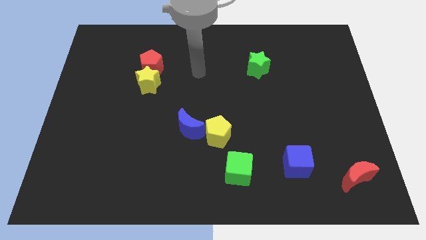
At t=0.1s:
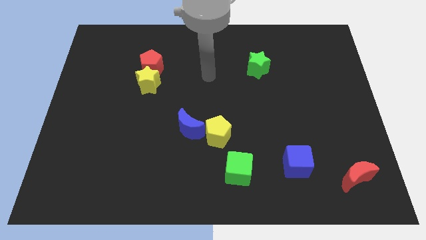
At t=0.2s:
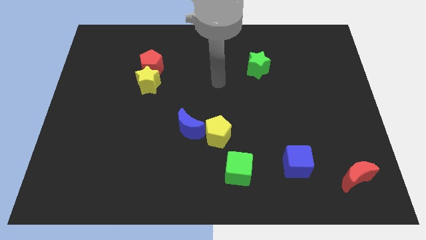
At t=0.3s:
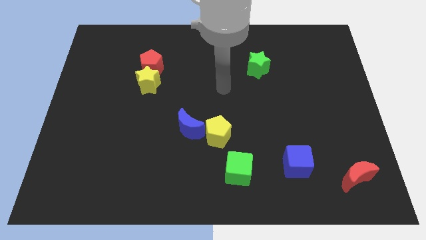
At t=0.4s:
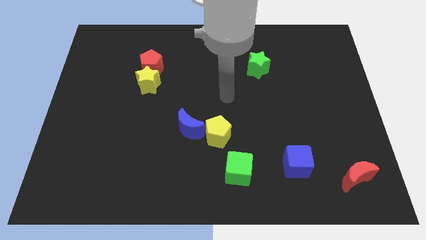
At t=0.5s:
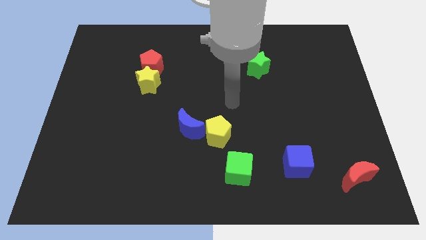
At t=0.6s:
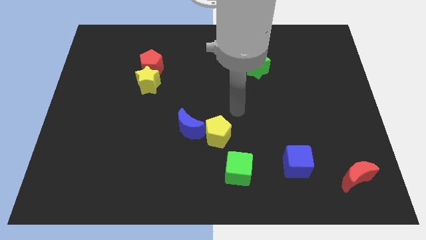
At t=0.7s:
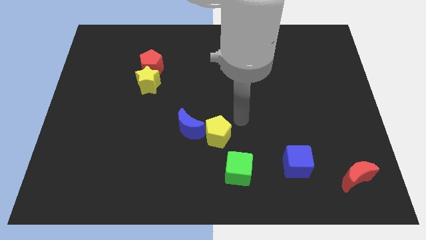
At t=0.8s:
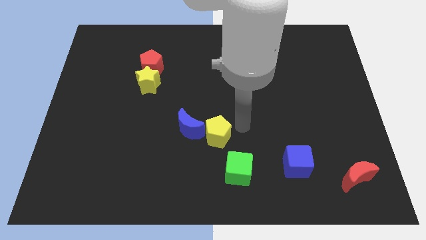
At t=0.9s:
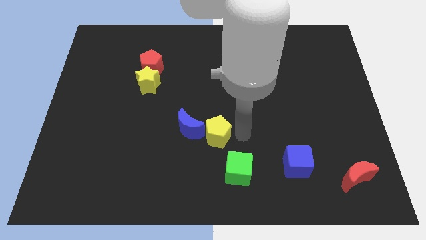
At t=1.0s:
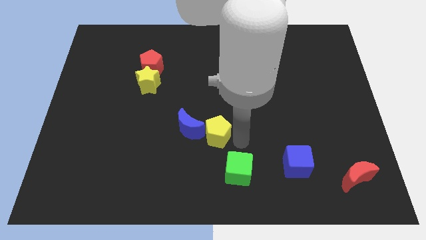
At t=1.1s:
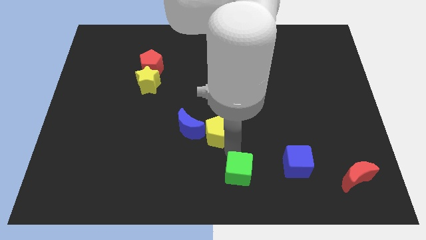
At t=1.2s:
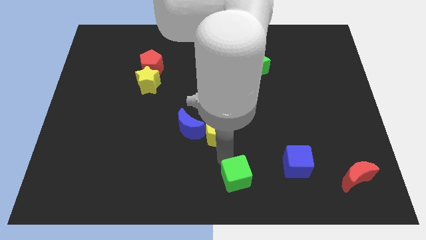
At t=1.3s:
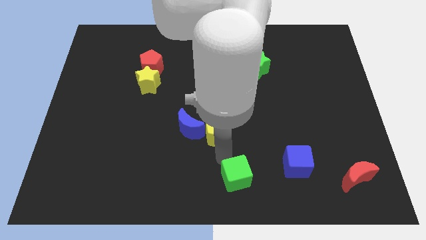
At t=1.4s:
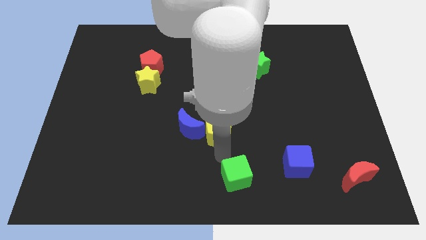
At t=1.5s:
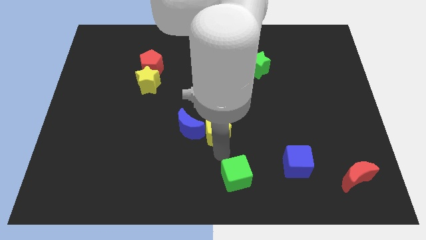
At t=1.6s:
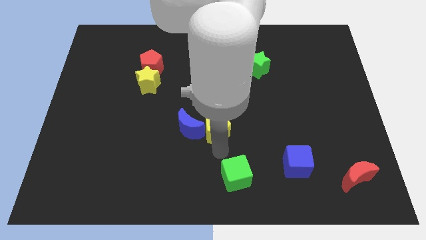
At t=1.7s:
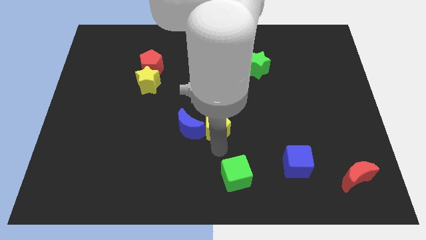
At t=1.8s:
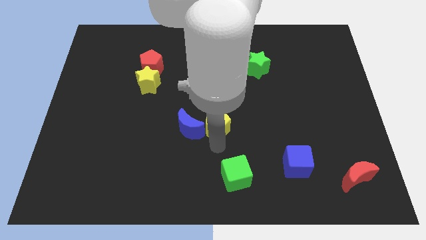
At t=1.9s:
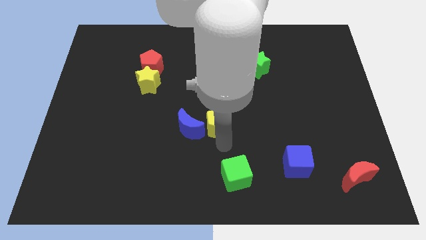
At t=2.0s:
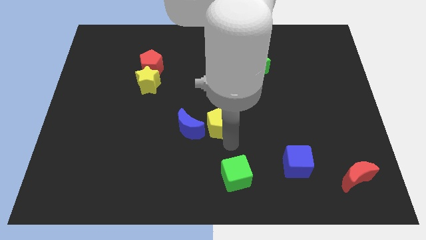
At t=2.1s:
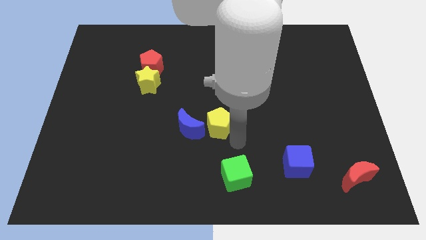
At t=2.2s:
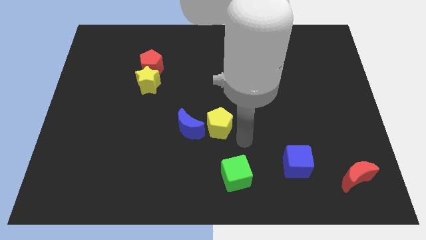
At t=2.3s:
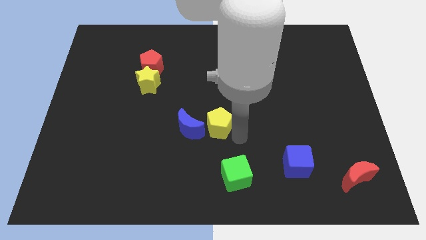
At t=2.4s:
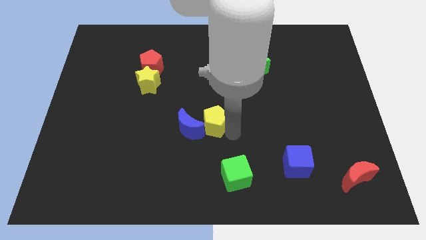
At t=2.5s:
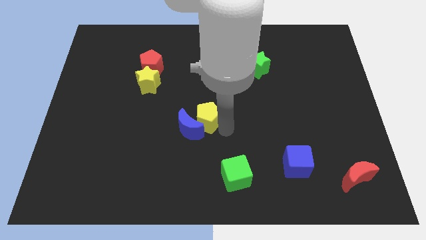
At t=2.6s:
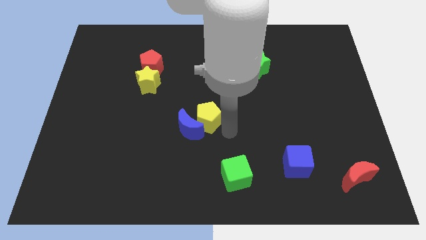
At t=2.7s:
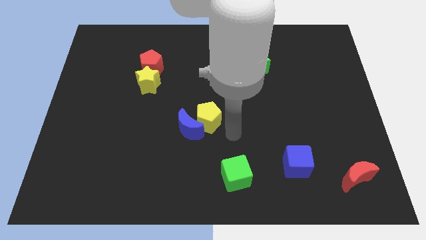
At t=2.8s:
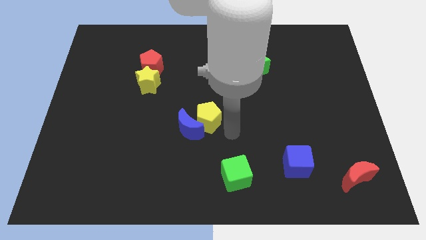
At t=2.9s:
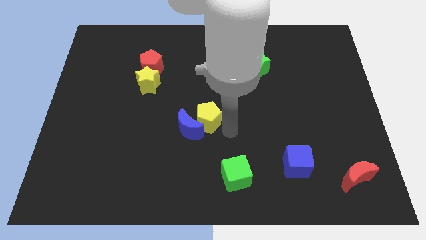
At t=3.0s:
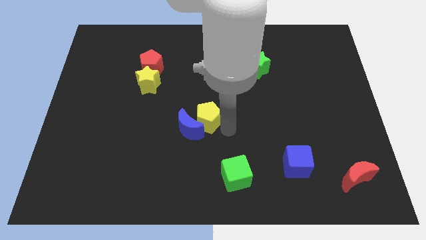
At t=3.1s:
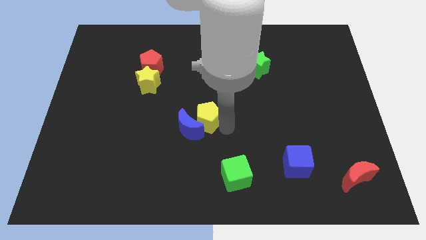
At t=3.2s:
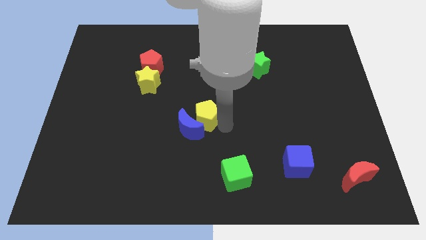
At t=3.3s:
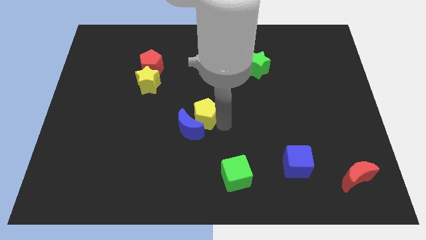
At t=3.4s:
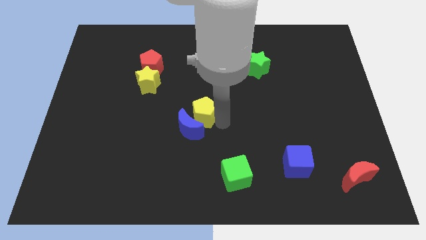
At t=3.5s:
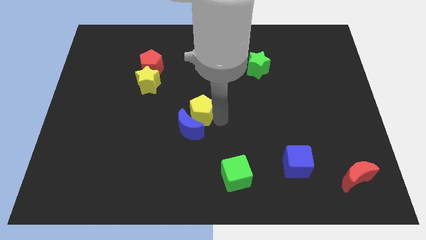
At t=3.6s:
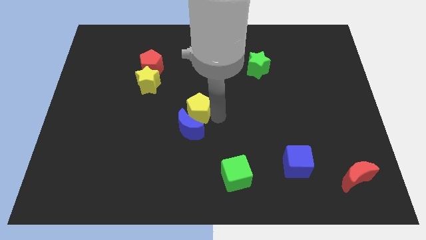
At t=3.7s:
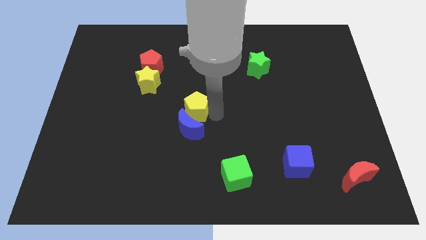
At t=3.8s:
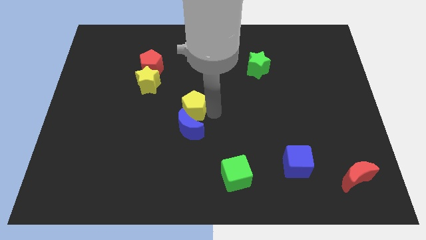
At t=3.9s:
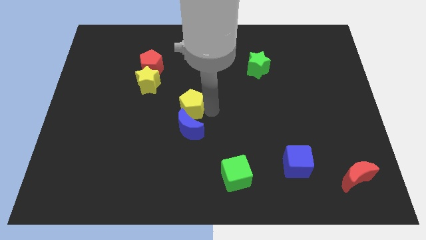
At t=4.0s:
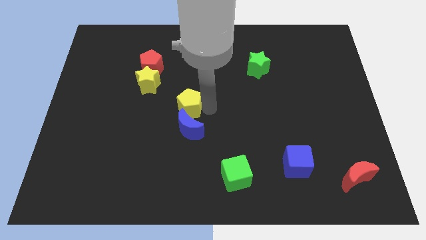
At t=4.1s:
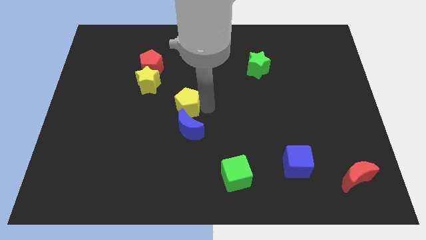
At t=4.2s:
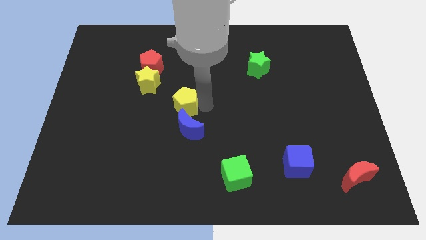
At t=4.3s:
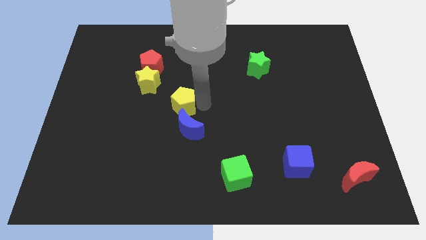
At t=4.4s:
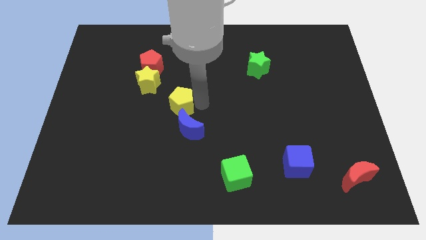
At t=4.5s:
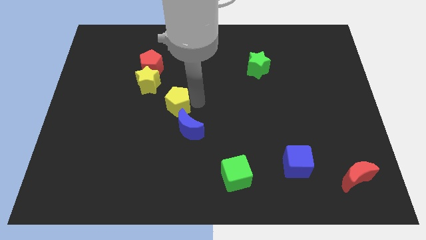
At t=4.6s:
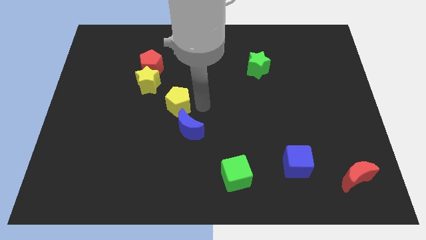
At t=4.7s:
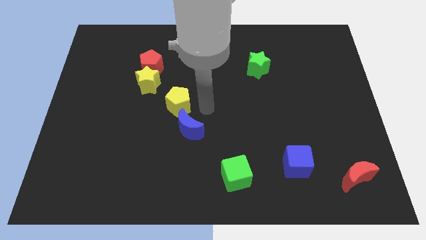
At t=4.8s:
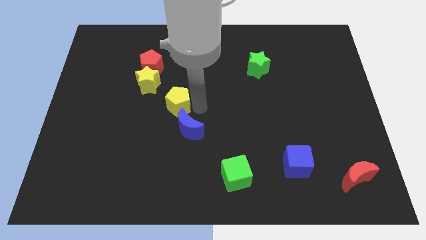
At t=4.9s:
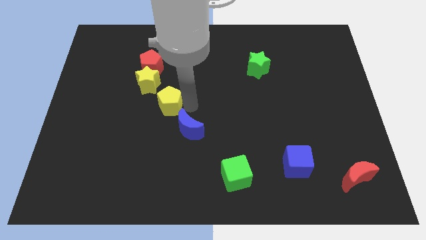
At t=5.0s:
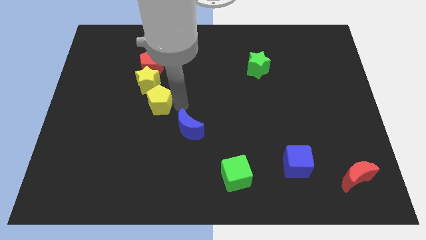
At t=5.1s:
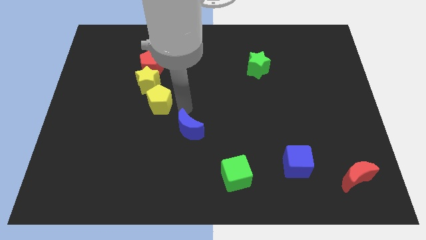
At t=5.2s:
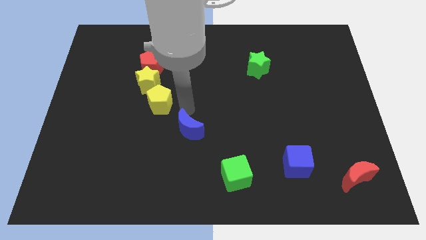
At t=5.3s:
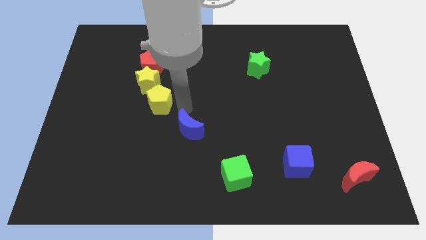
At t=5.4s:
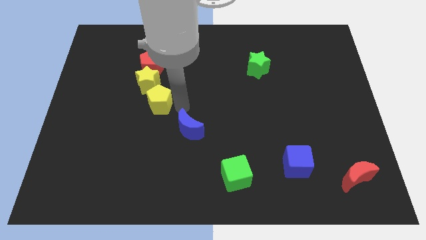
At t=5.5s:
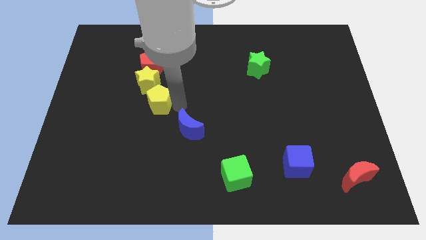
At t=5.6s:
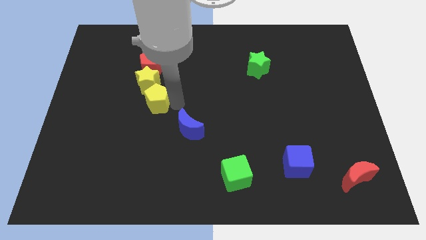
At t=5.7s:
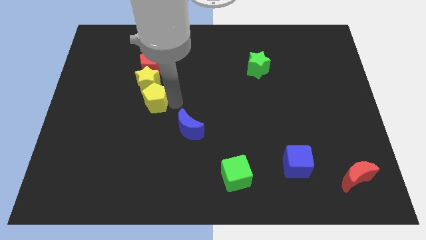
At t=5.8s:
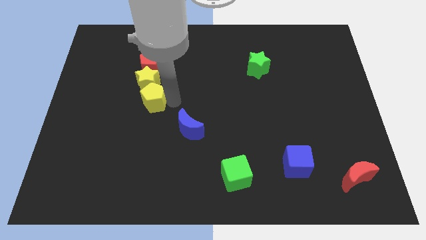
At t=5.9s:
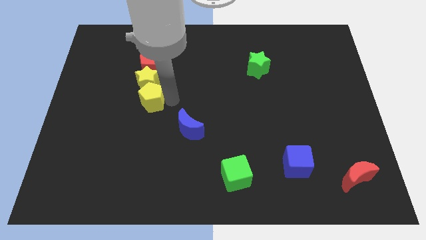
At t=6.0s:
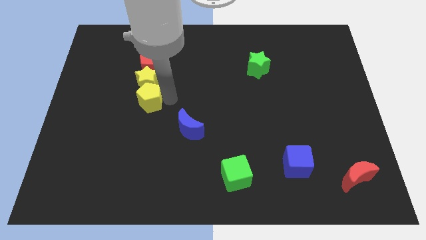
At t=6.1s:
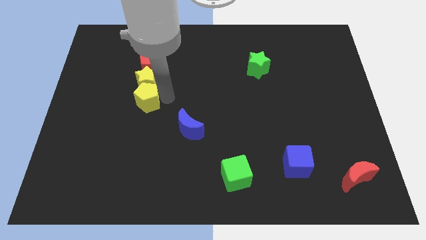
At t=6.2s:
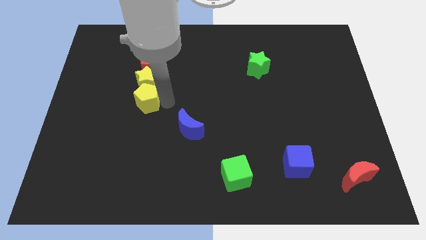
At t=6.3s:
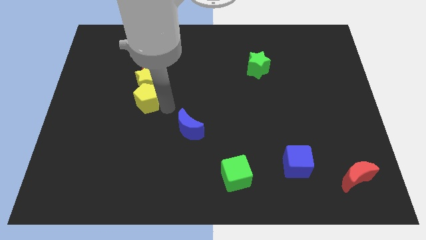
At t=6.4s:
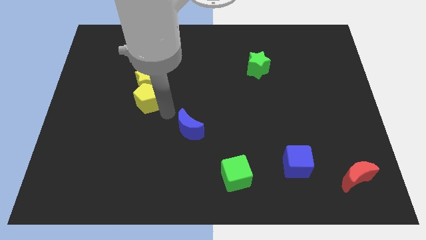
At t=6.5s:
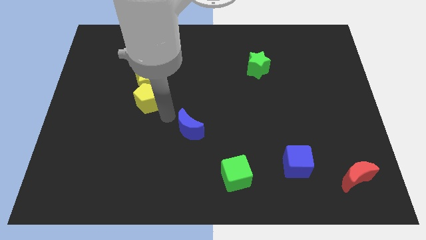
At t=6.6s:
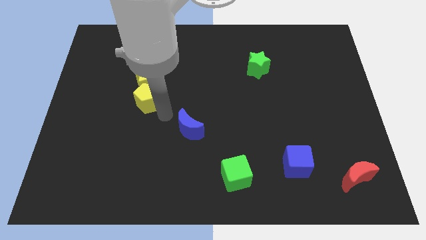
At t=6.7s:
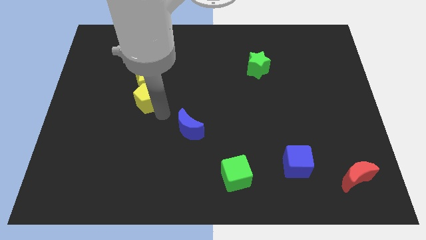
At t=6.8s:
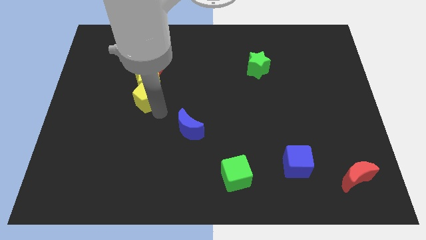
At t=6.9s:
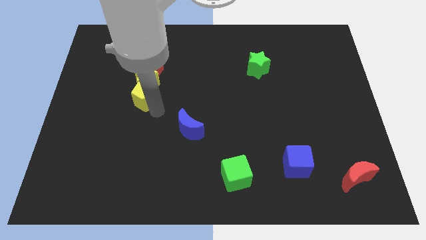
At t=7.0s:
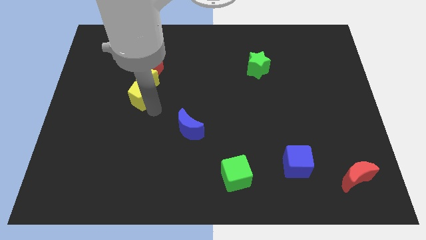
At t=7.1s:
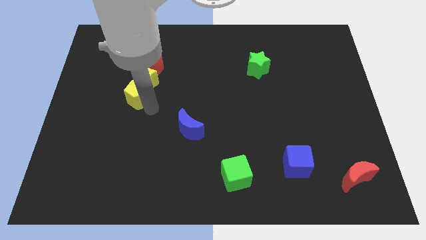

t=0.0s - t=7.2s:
move the yellow pentagon upwards and to the left

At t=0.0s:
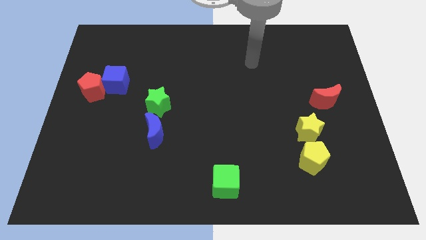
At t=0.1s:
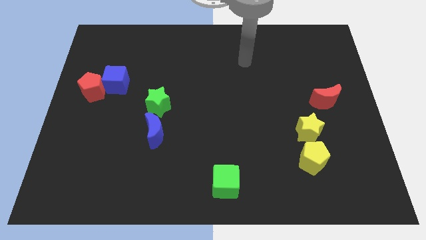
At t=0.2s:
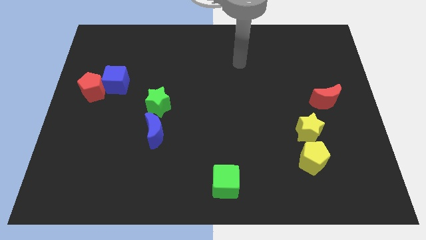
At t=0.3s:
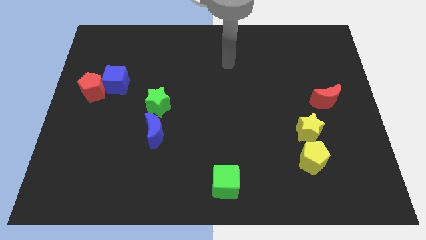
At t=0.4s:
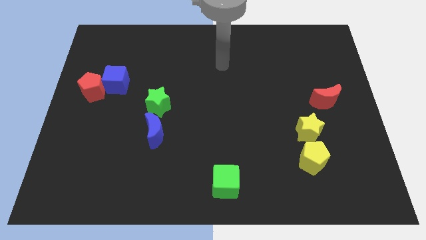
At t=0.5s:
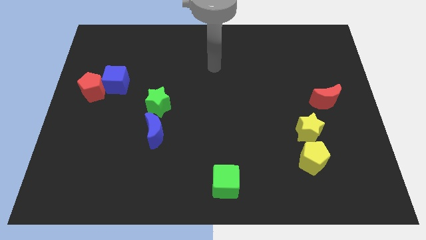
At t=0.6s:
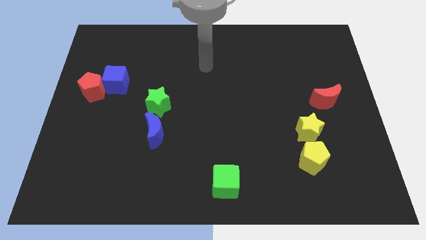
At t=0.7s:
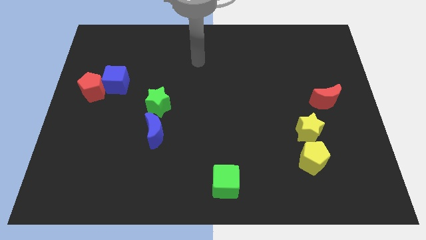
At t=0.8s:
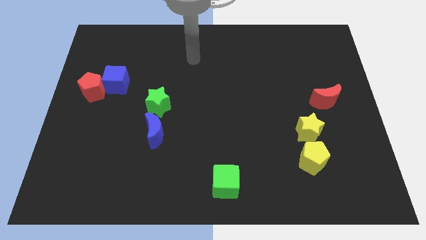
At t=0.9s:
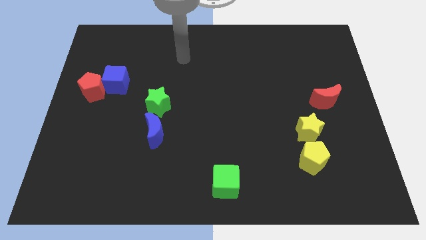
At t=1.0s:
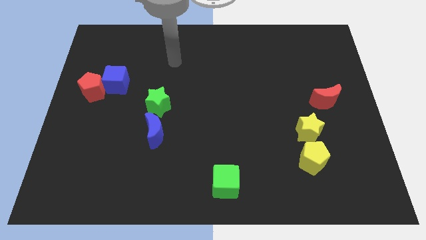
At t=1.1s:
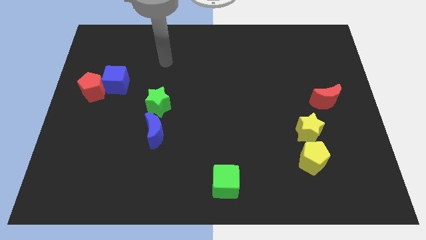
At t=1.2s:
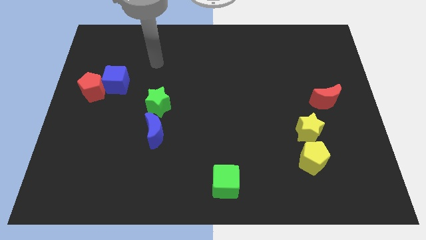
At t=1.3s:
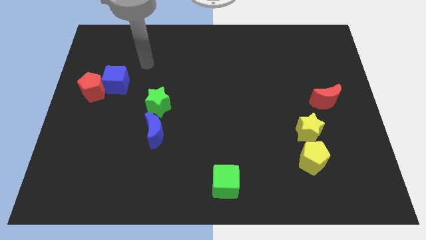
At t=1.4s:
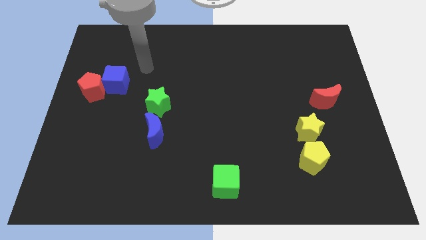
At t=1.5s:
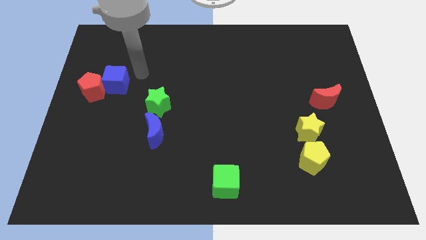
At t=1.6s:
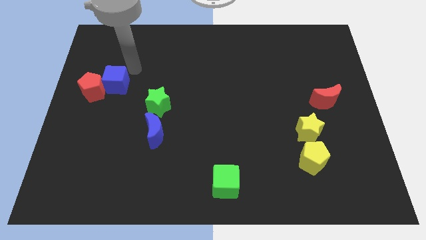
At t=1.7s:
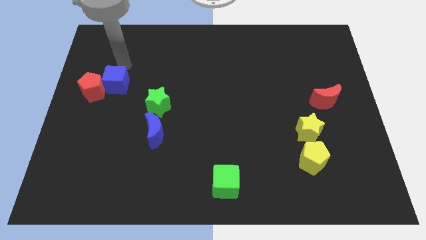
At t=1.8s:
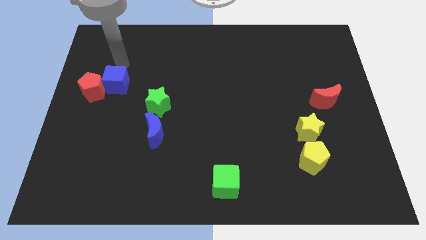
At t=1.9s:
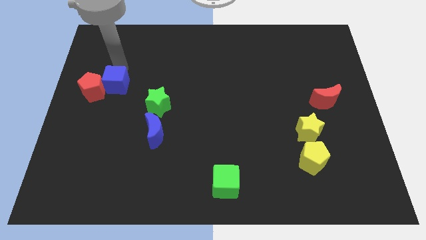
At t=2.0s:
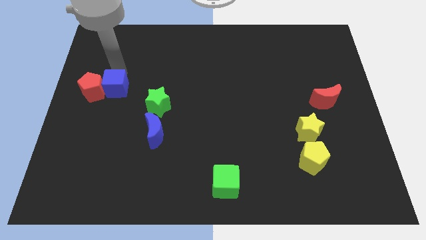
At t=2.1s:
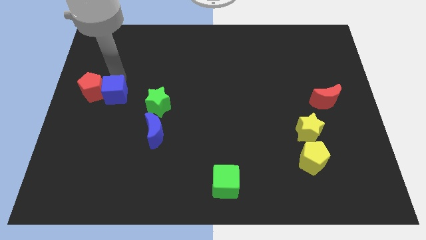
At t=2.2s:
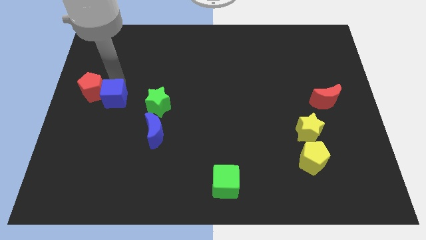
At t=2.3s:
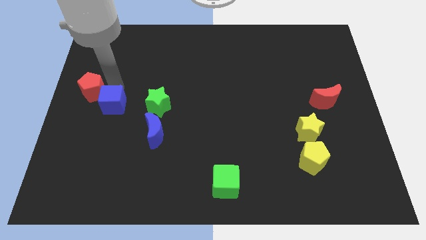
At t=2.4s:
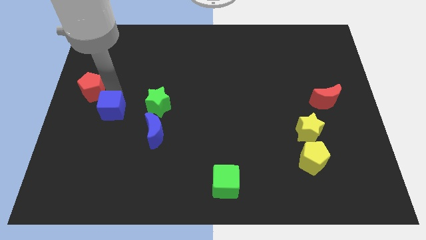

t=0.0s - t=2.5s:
slightly push the blue cube downwards
